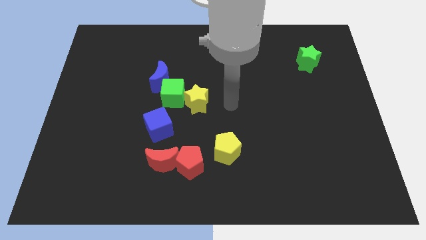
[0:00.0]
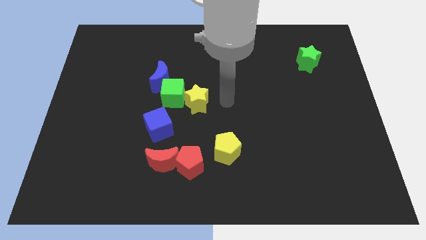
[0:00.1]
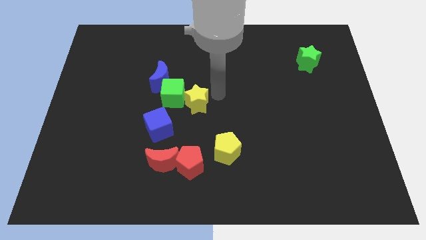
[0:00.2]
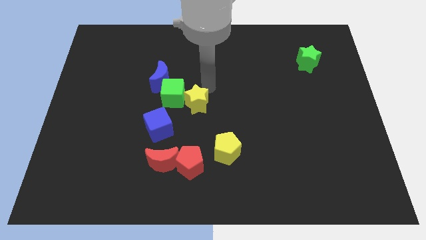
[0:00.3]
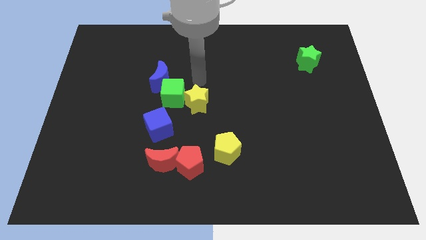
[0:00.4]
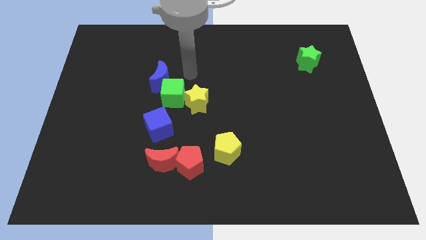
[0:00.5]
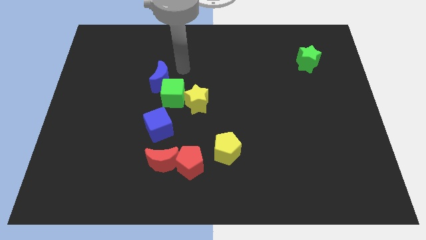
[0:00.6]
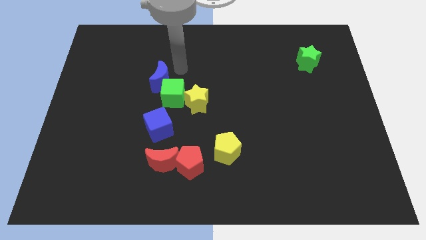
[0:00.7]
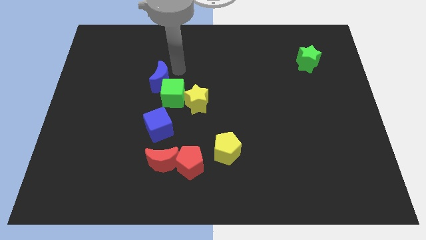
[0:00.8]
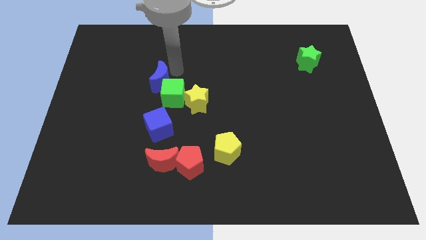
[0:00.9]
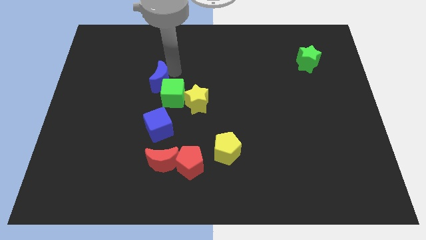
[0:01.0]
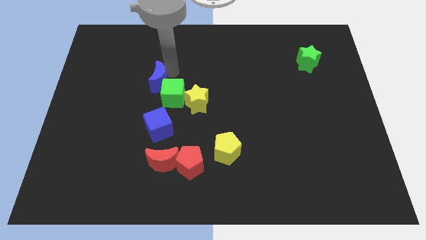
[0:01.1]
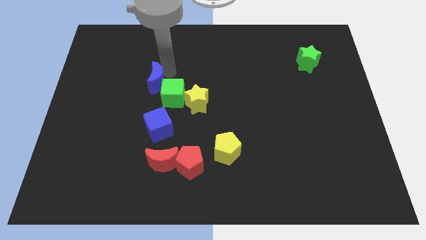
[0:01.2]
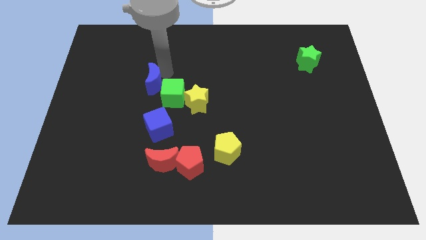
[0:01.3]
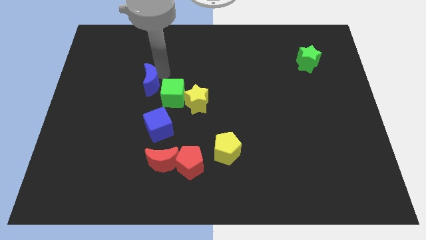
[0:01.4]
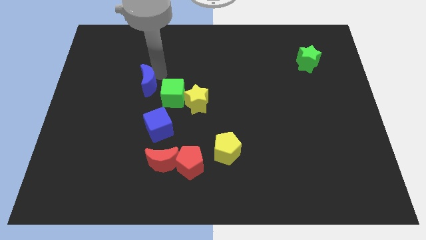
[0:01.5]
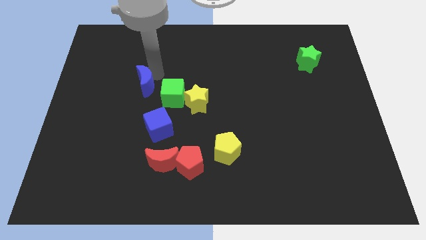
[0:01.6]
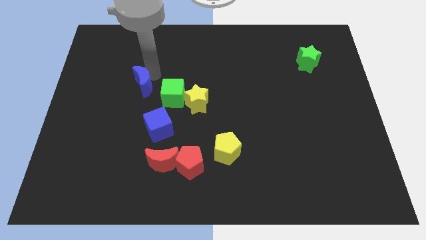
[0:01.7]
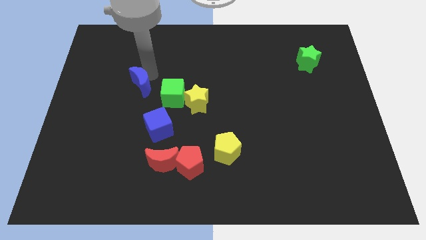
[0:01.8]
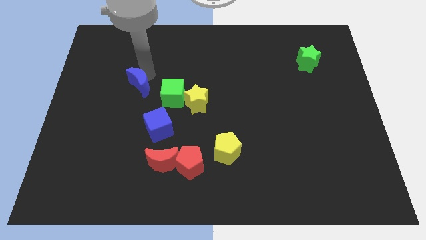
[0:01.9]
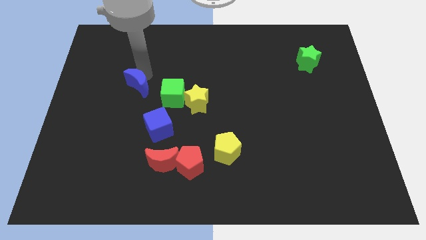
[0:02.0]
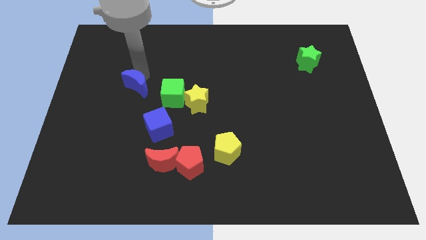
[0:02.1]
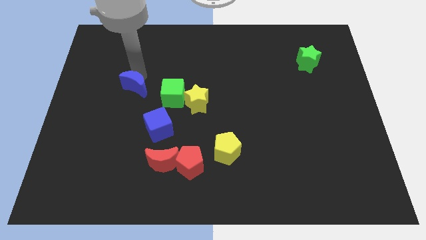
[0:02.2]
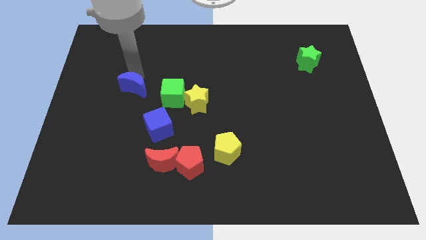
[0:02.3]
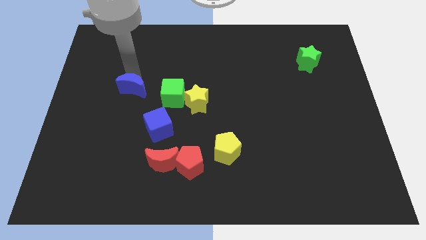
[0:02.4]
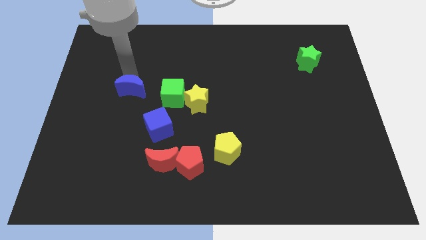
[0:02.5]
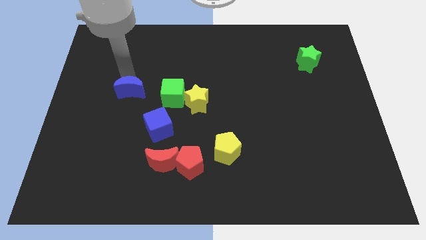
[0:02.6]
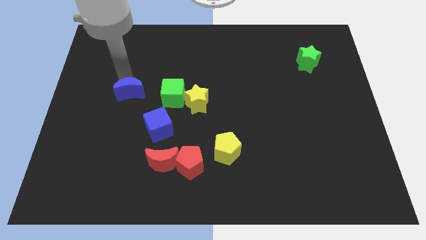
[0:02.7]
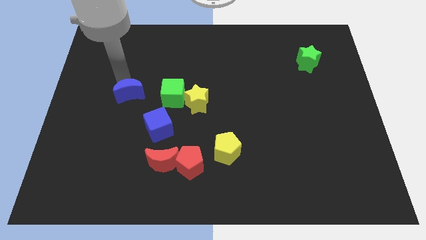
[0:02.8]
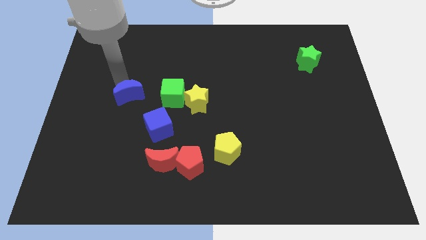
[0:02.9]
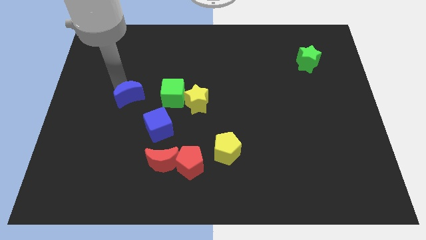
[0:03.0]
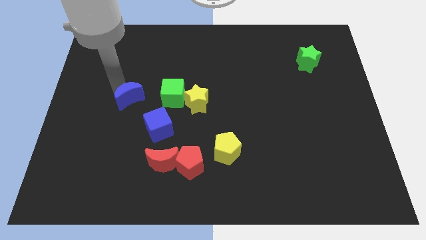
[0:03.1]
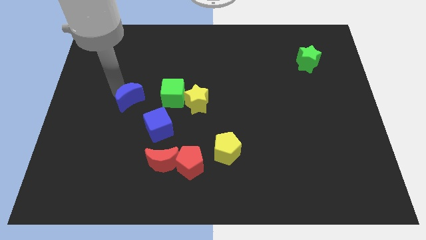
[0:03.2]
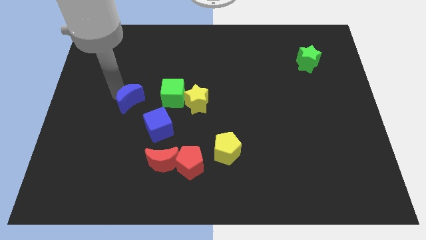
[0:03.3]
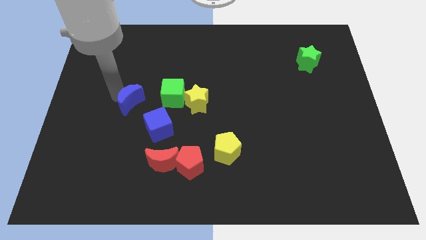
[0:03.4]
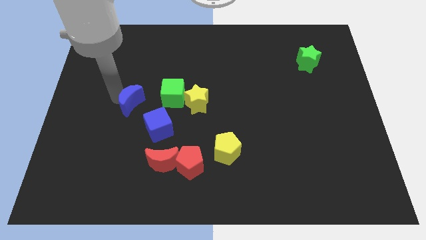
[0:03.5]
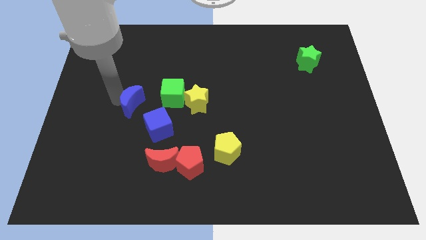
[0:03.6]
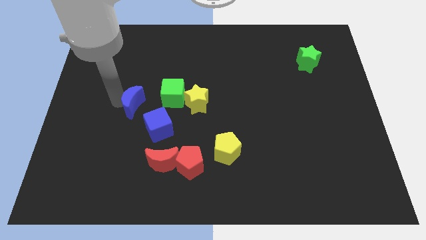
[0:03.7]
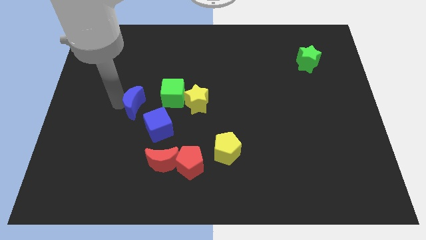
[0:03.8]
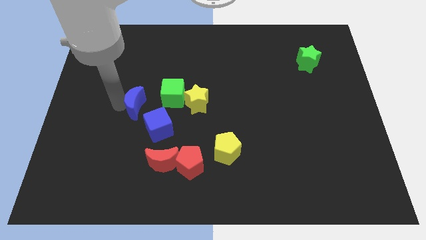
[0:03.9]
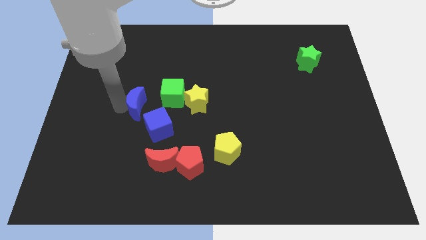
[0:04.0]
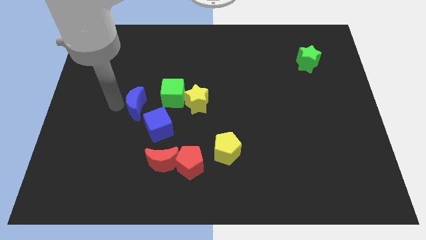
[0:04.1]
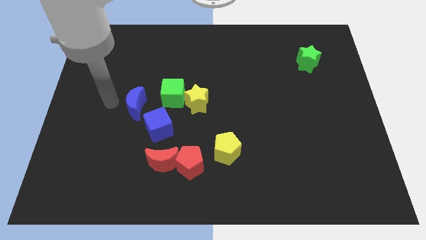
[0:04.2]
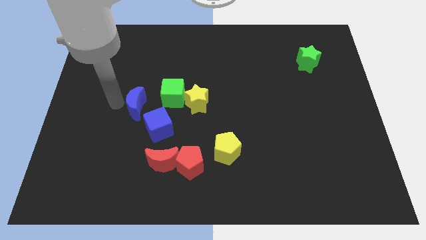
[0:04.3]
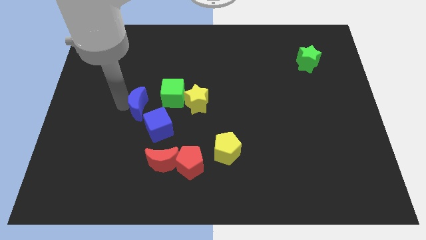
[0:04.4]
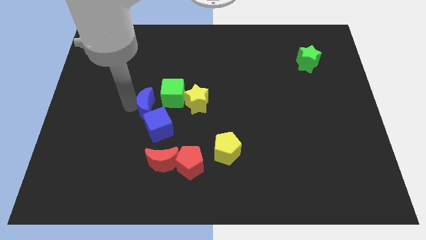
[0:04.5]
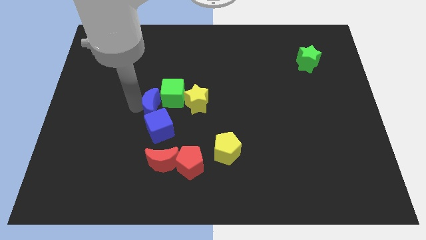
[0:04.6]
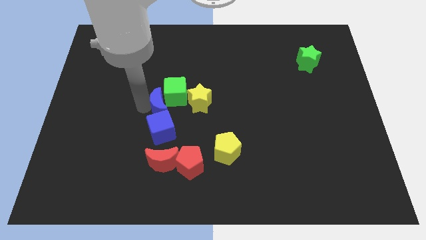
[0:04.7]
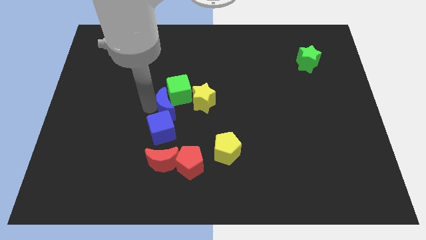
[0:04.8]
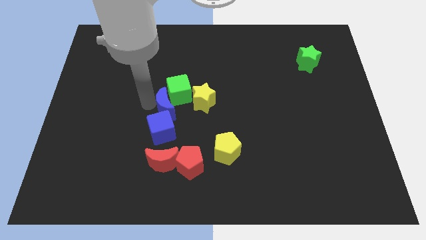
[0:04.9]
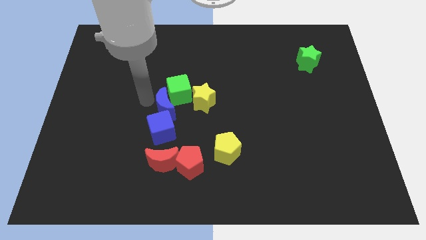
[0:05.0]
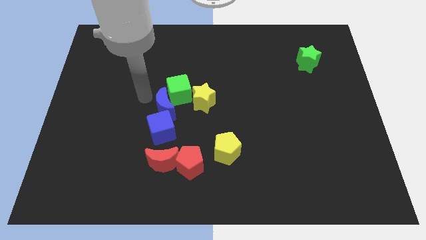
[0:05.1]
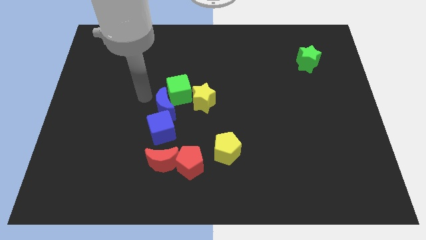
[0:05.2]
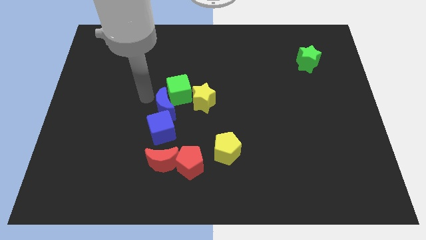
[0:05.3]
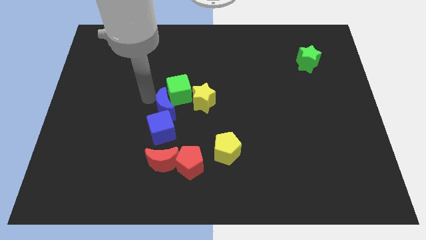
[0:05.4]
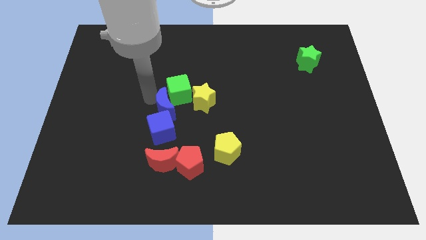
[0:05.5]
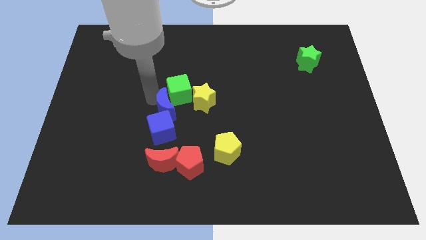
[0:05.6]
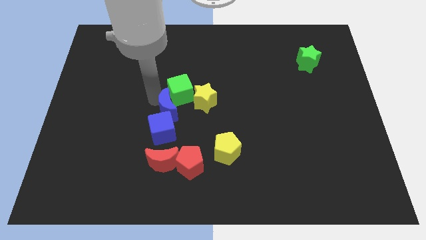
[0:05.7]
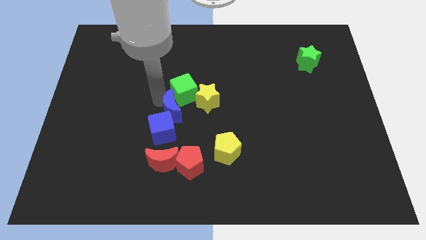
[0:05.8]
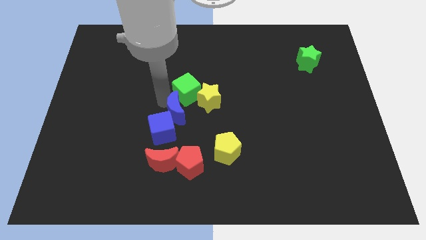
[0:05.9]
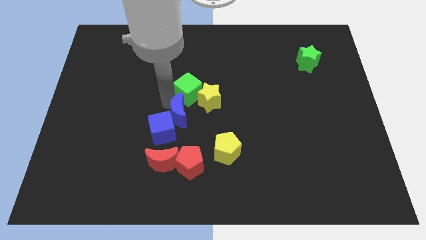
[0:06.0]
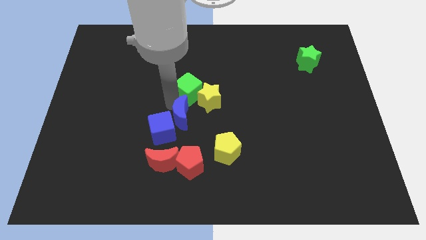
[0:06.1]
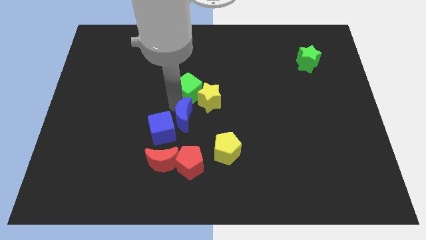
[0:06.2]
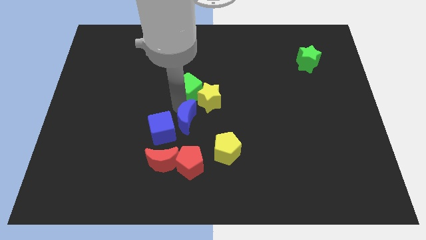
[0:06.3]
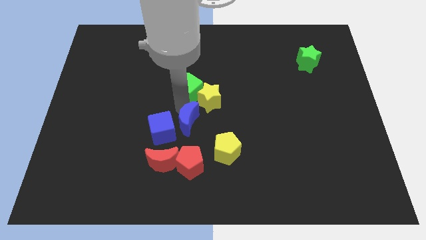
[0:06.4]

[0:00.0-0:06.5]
push the blue moon to the bottom of the yellow star

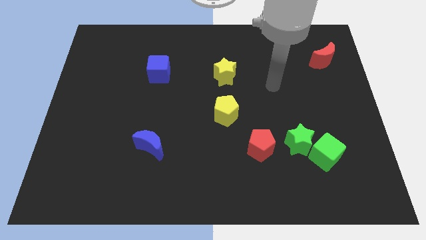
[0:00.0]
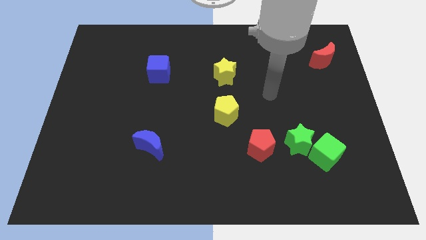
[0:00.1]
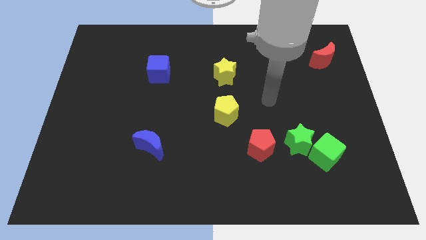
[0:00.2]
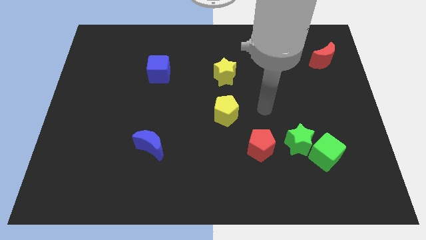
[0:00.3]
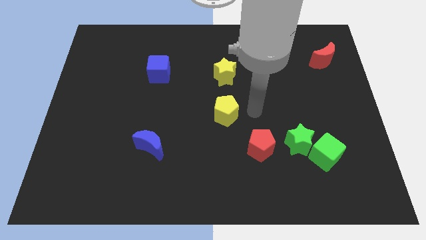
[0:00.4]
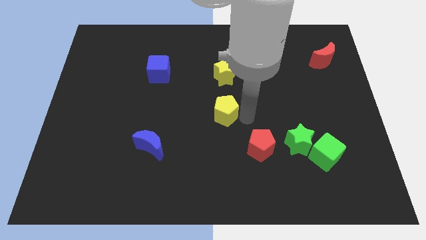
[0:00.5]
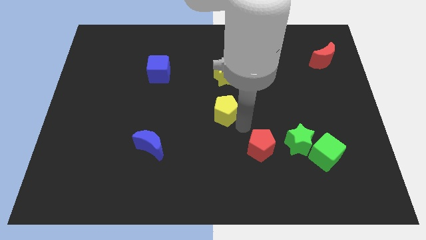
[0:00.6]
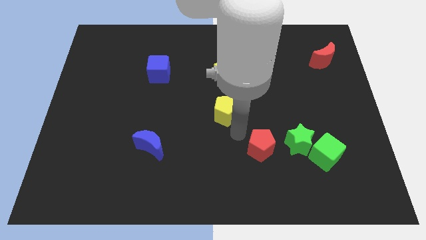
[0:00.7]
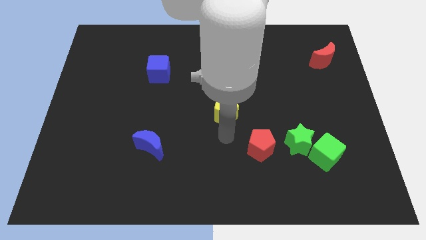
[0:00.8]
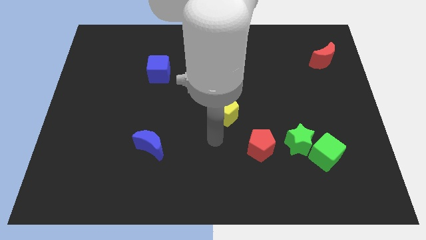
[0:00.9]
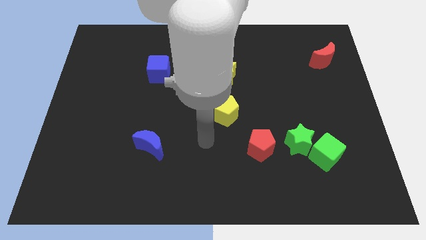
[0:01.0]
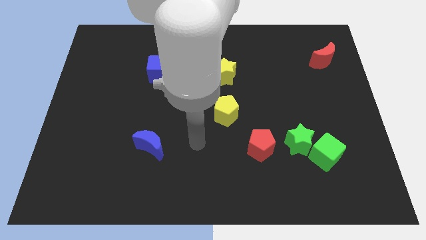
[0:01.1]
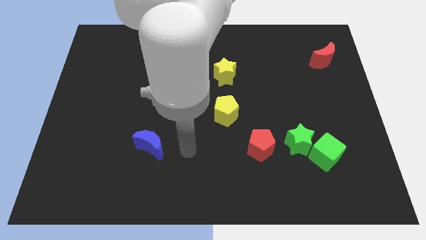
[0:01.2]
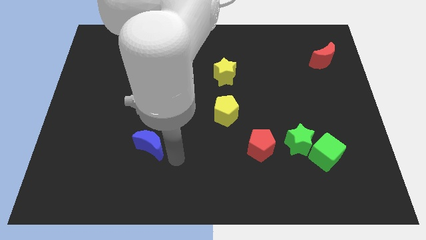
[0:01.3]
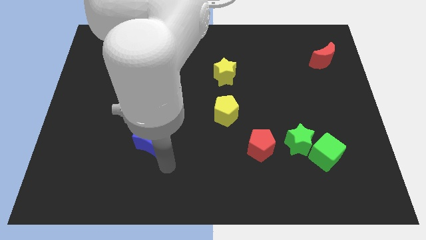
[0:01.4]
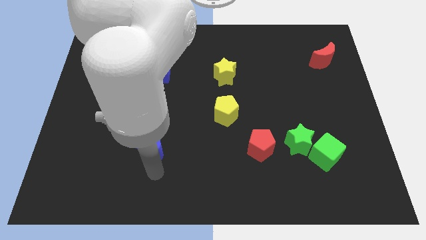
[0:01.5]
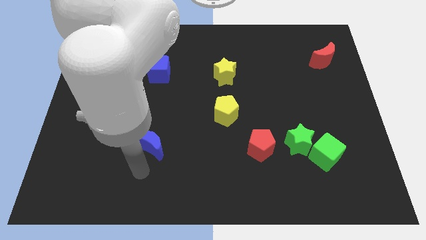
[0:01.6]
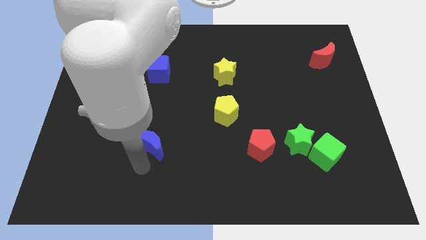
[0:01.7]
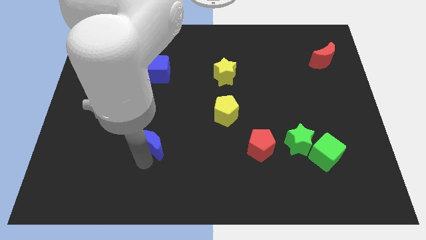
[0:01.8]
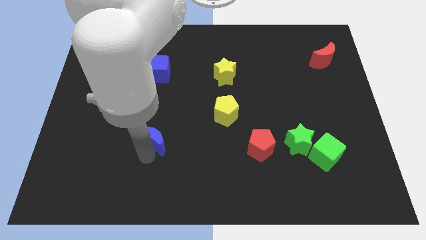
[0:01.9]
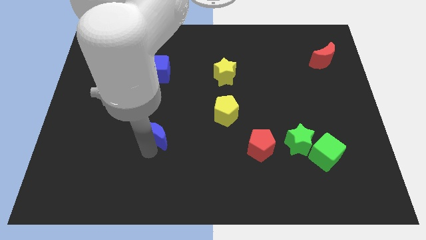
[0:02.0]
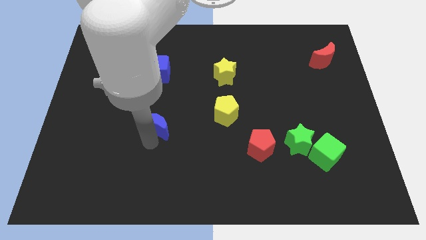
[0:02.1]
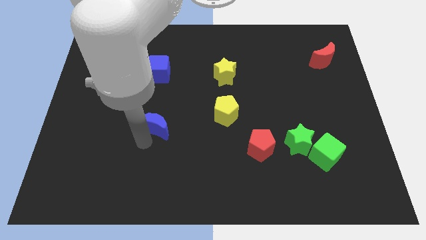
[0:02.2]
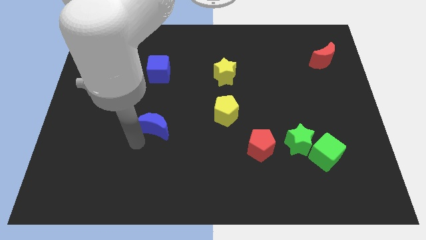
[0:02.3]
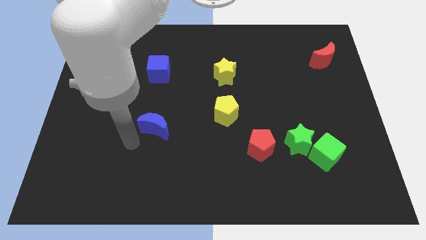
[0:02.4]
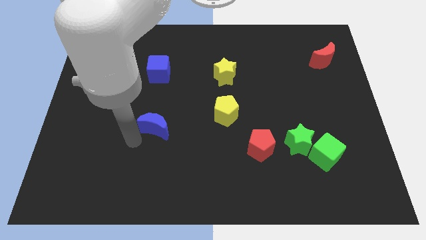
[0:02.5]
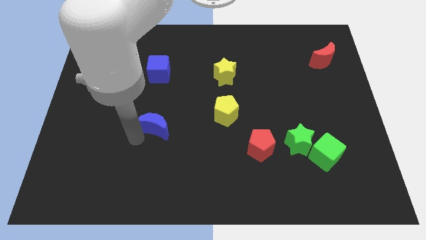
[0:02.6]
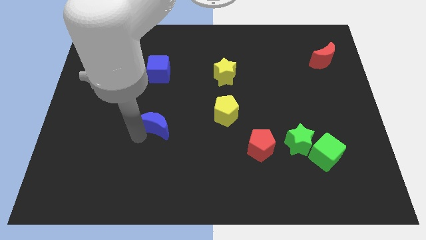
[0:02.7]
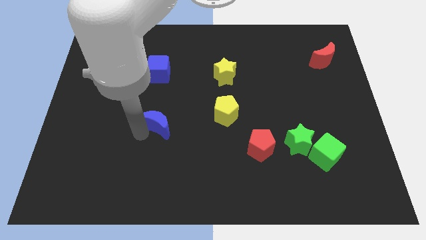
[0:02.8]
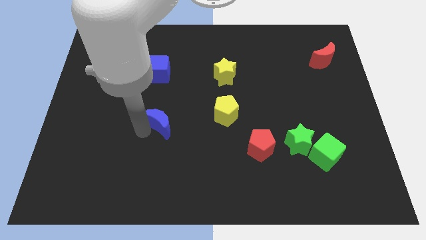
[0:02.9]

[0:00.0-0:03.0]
put the blue moon to the left side of the yellow pentagon
